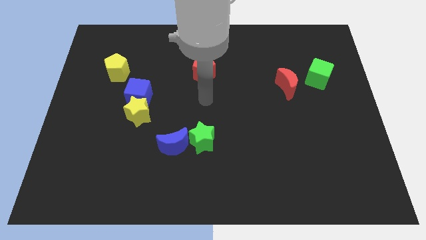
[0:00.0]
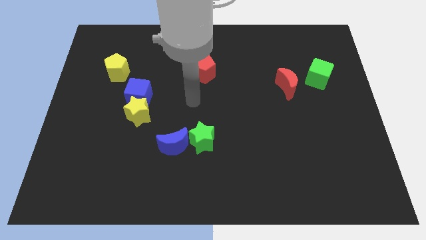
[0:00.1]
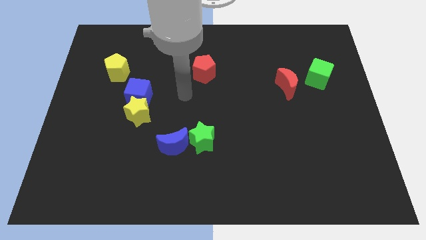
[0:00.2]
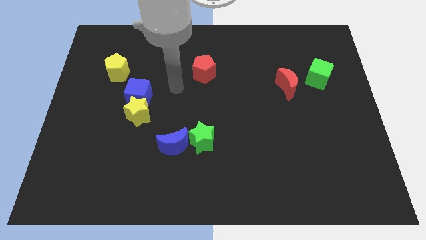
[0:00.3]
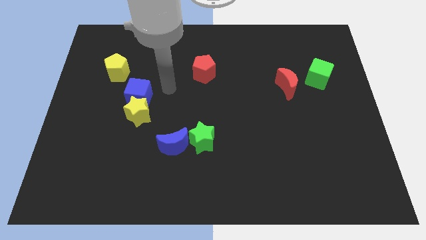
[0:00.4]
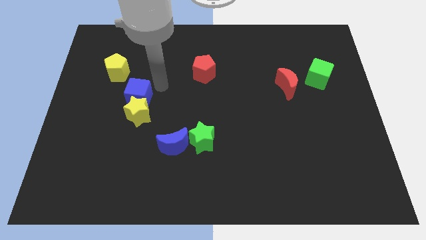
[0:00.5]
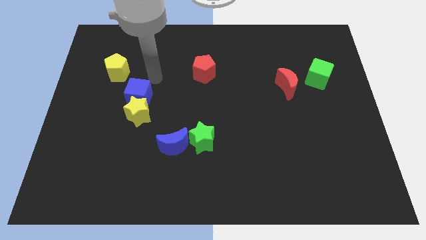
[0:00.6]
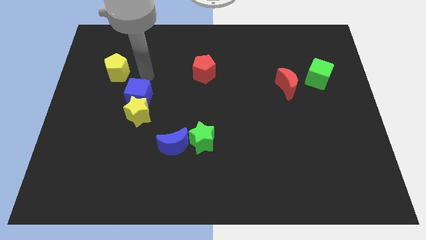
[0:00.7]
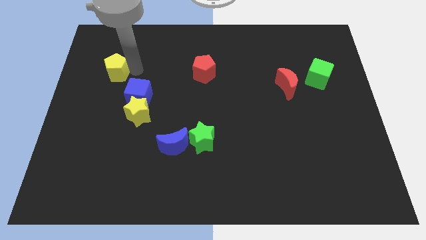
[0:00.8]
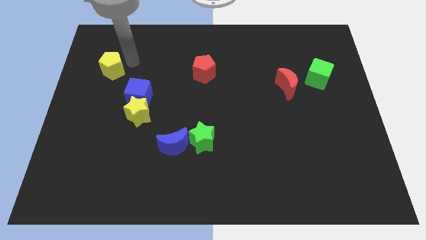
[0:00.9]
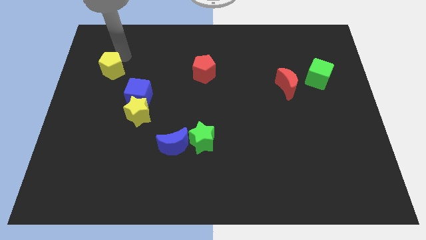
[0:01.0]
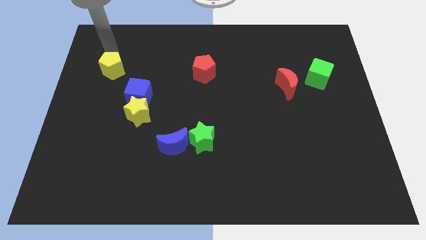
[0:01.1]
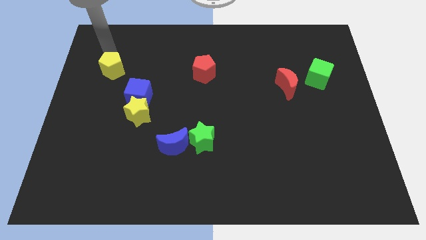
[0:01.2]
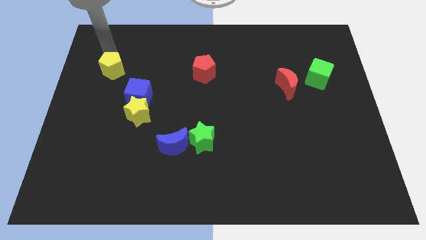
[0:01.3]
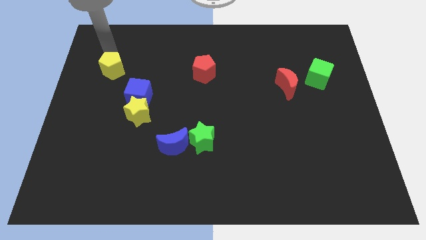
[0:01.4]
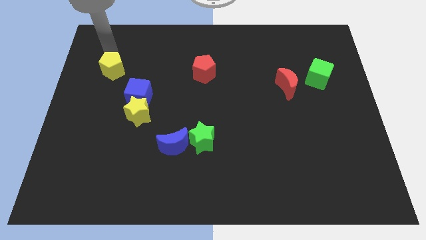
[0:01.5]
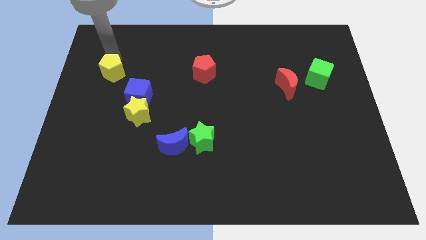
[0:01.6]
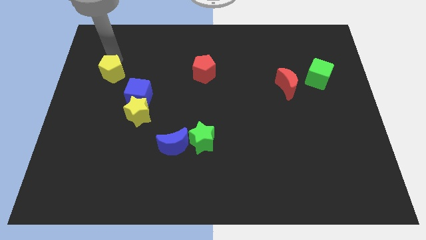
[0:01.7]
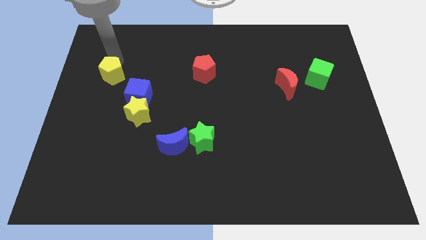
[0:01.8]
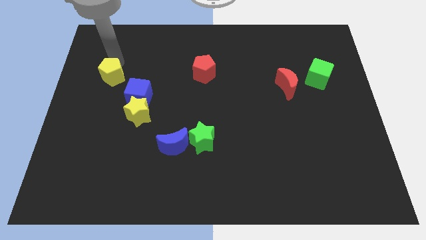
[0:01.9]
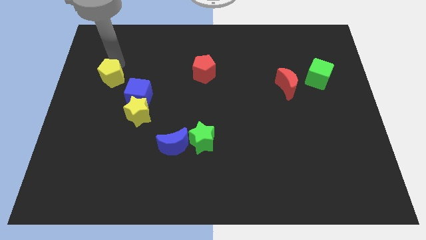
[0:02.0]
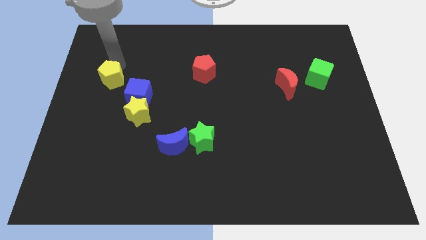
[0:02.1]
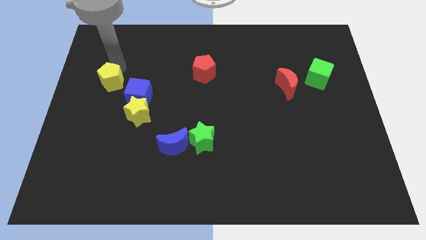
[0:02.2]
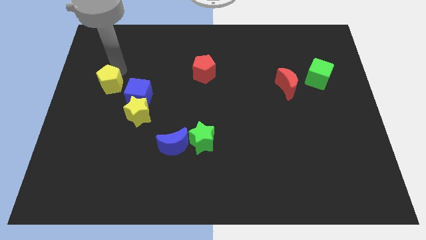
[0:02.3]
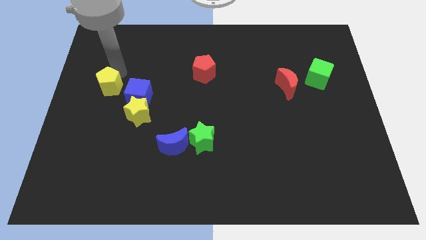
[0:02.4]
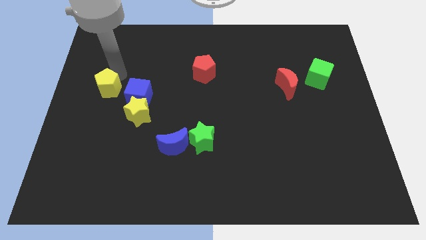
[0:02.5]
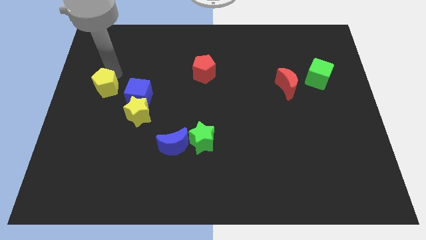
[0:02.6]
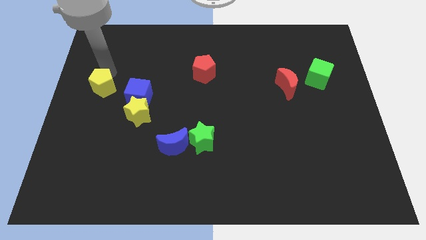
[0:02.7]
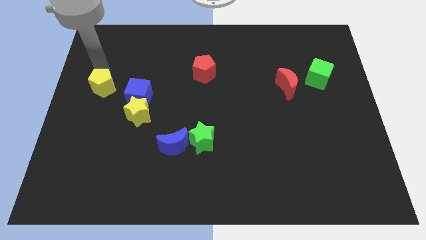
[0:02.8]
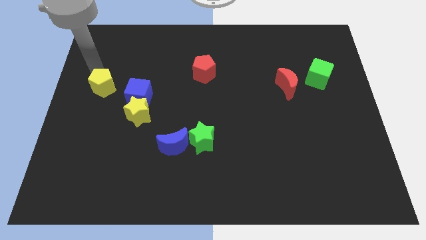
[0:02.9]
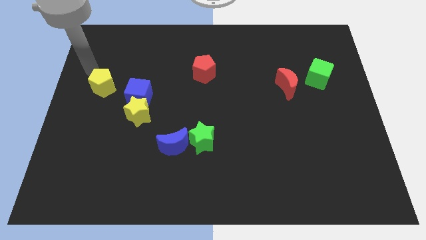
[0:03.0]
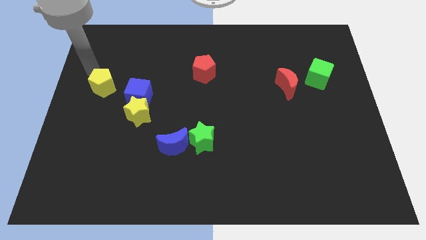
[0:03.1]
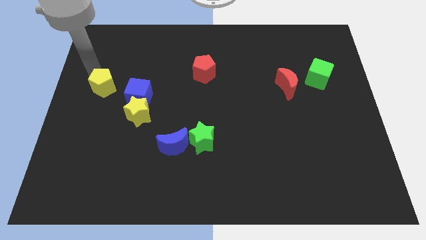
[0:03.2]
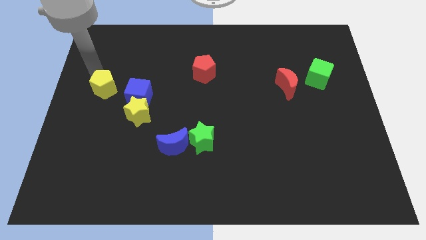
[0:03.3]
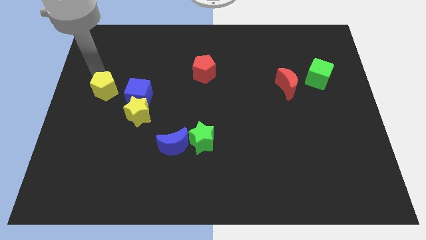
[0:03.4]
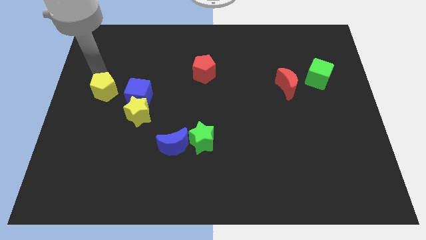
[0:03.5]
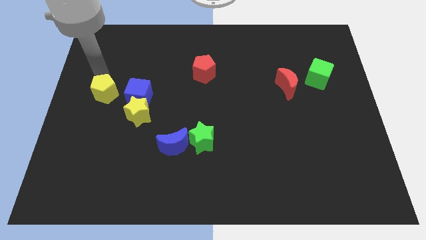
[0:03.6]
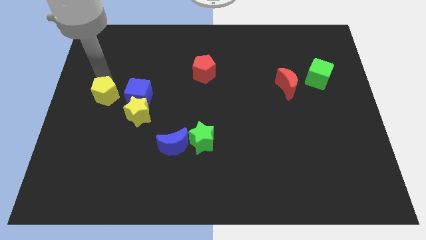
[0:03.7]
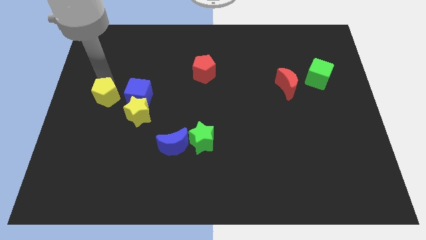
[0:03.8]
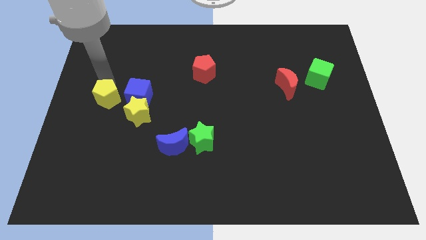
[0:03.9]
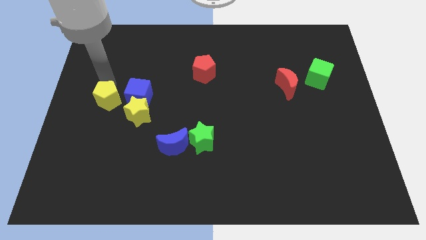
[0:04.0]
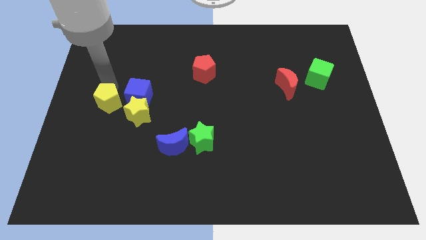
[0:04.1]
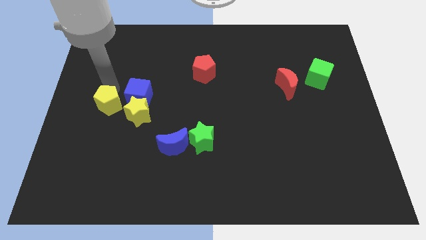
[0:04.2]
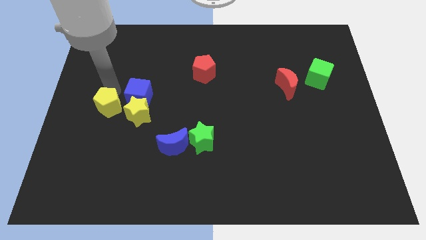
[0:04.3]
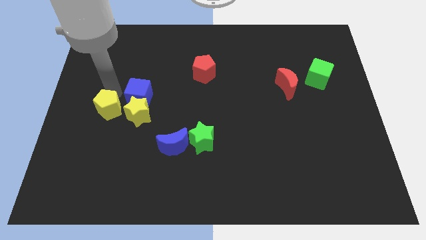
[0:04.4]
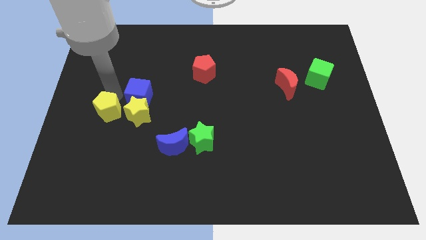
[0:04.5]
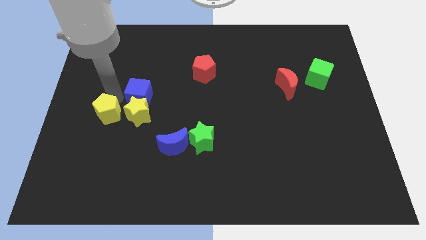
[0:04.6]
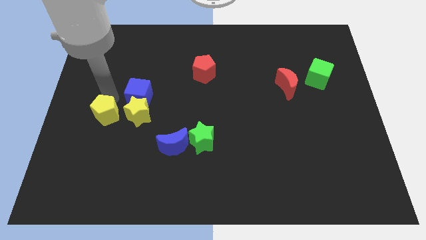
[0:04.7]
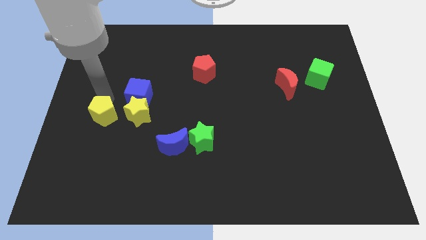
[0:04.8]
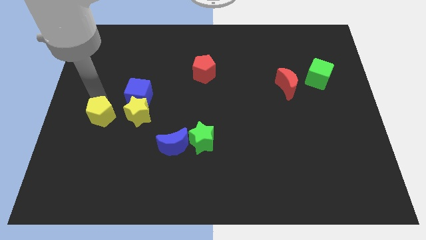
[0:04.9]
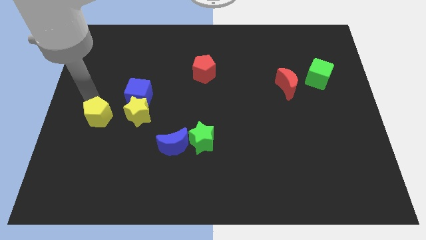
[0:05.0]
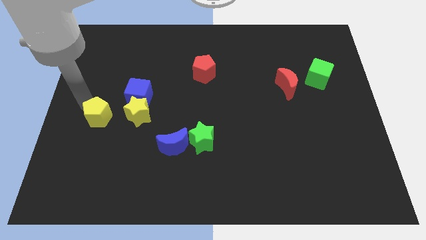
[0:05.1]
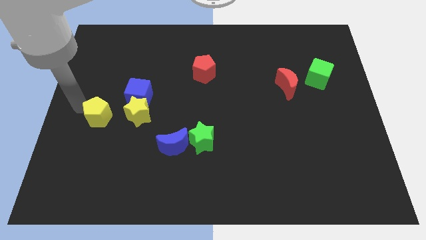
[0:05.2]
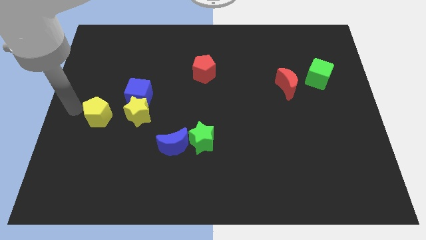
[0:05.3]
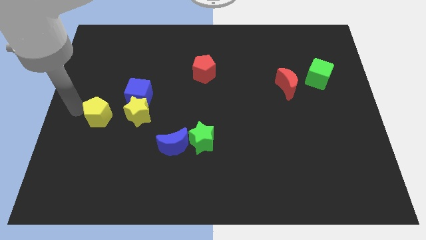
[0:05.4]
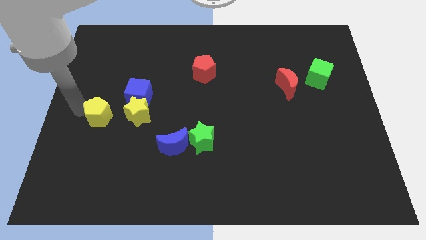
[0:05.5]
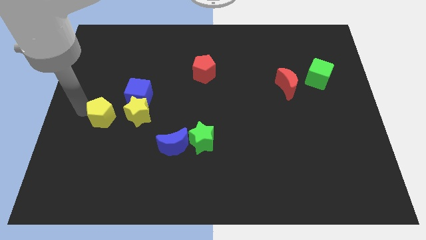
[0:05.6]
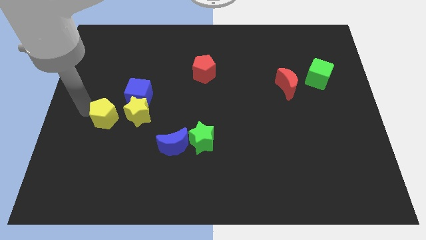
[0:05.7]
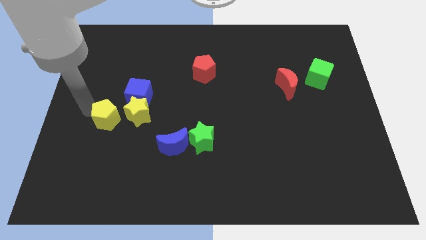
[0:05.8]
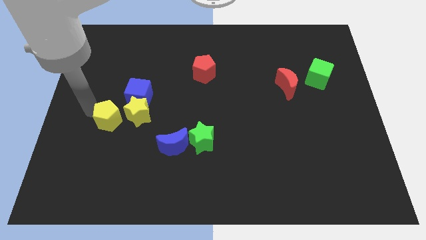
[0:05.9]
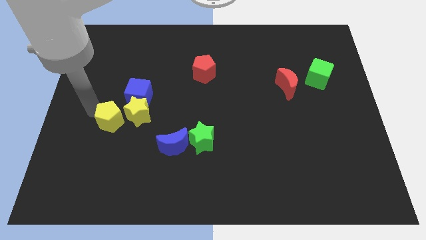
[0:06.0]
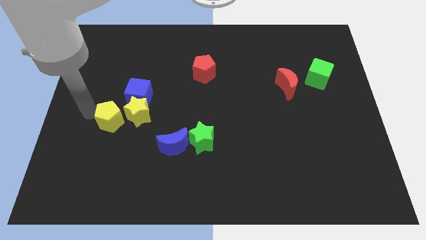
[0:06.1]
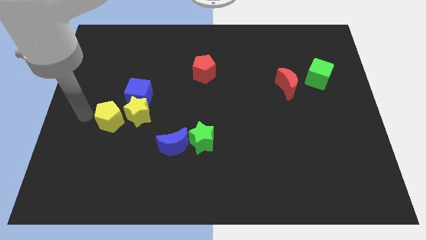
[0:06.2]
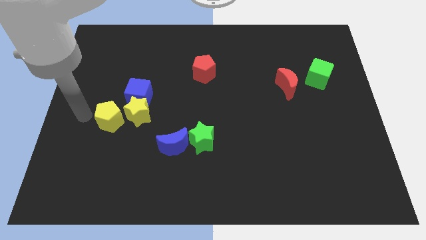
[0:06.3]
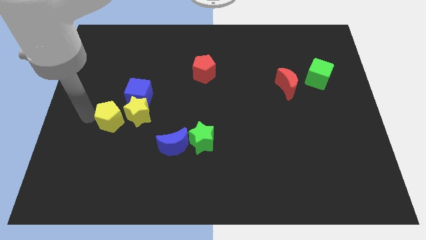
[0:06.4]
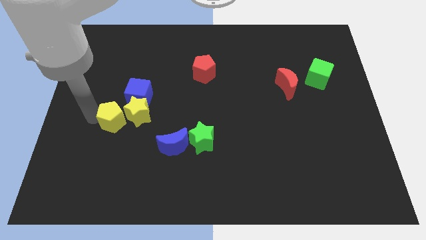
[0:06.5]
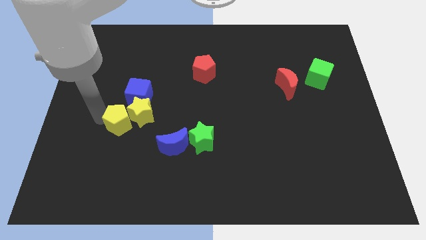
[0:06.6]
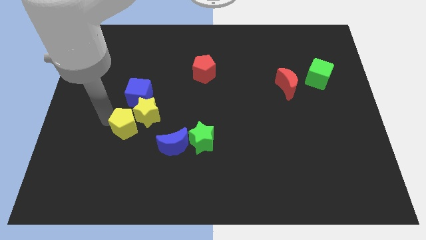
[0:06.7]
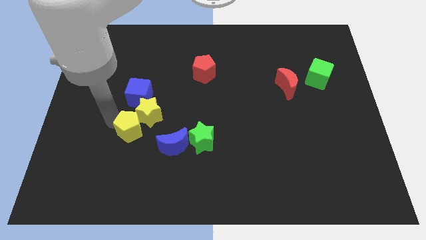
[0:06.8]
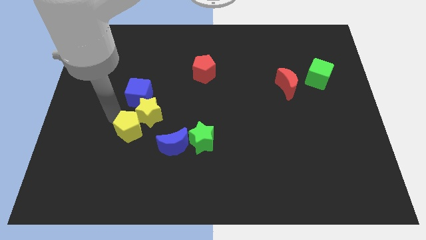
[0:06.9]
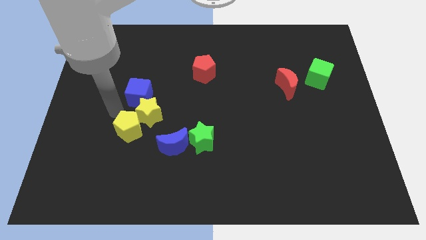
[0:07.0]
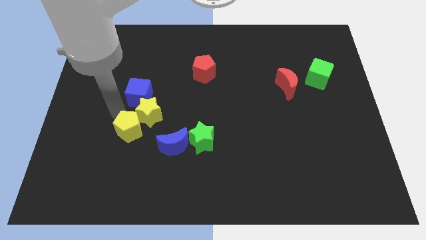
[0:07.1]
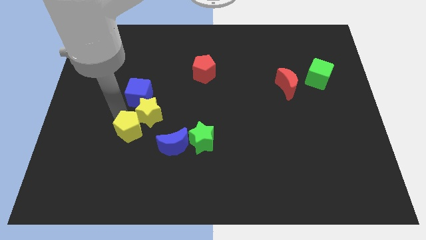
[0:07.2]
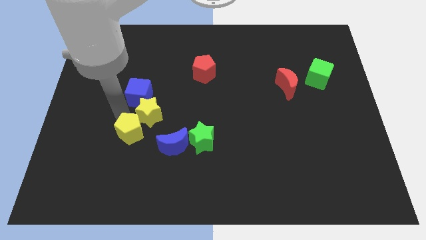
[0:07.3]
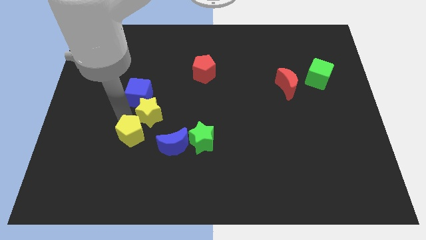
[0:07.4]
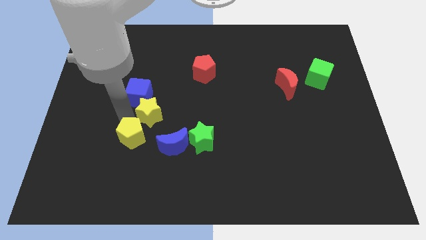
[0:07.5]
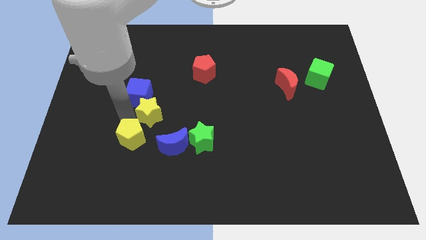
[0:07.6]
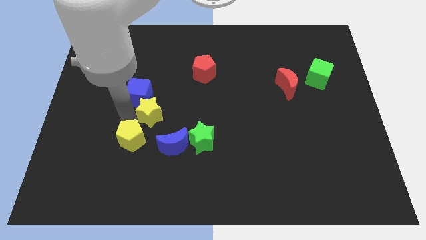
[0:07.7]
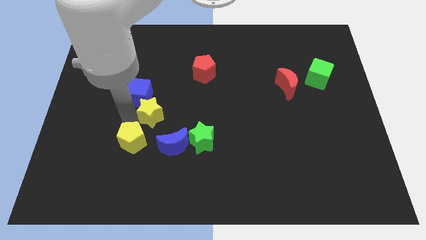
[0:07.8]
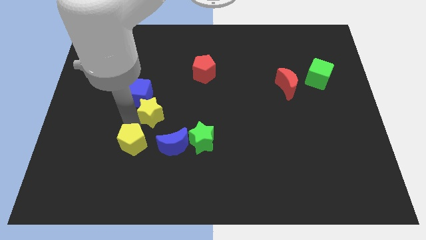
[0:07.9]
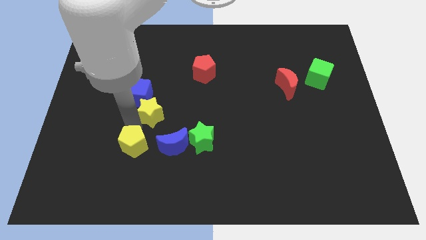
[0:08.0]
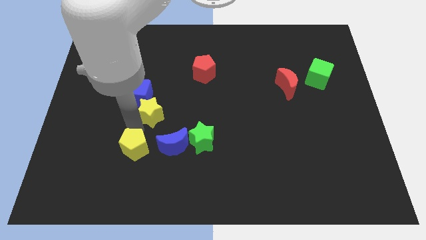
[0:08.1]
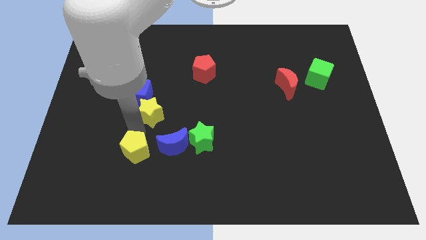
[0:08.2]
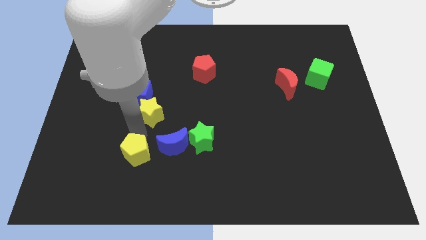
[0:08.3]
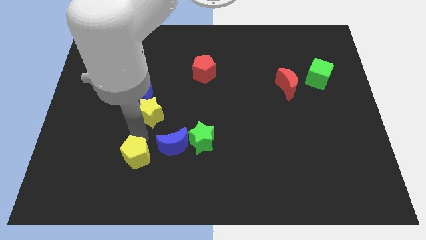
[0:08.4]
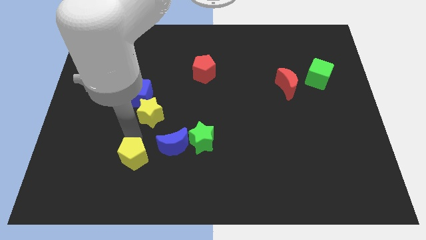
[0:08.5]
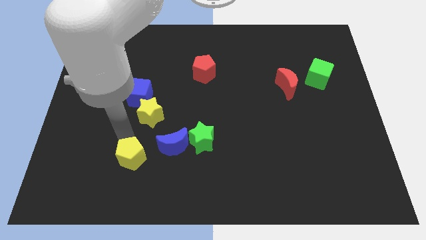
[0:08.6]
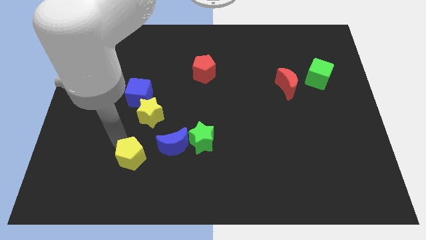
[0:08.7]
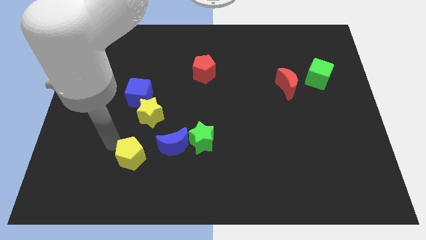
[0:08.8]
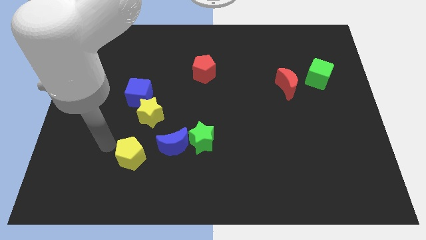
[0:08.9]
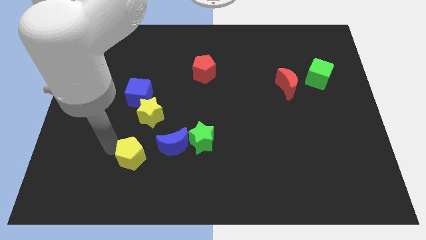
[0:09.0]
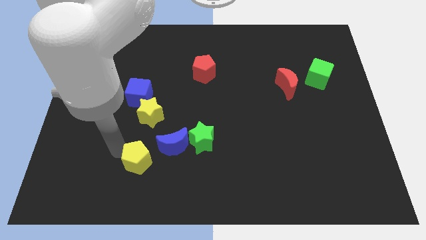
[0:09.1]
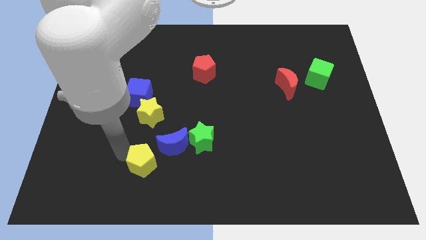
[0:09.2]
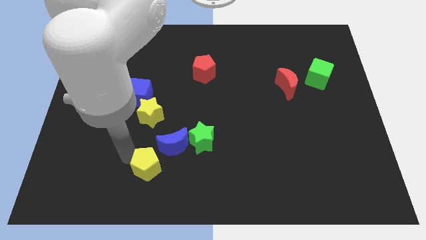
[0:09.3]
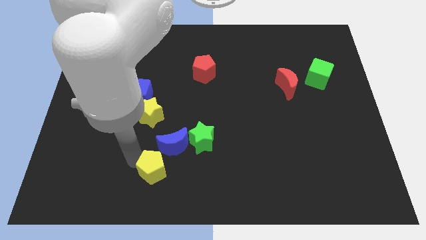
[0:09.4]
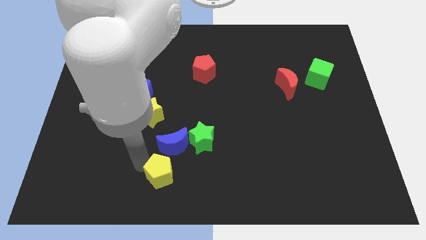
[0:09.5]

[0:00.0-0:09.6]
put the yellow pentagon to the bottom
